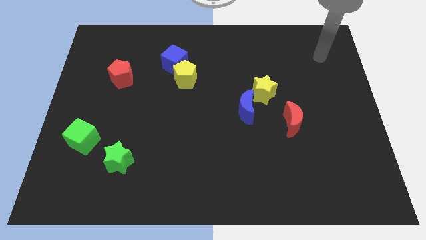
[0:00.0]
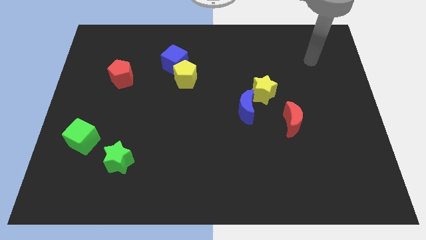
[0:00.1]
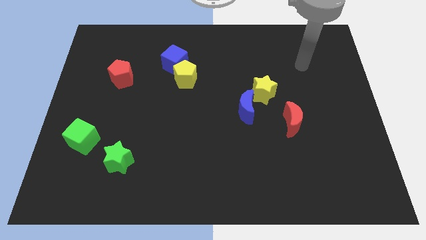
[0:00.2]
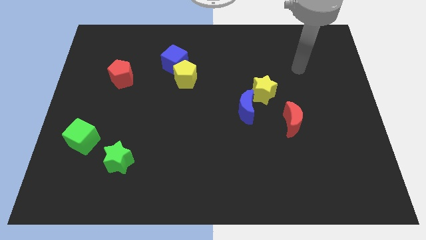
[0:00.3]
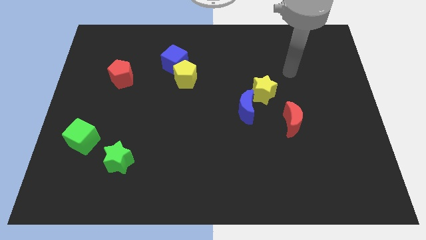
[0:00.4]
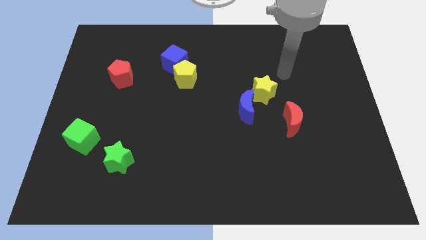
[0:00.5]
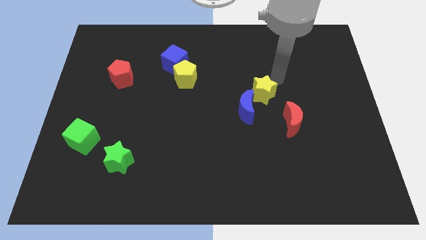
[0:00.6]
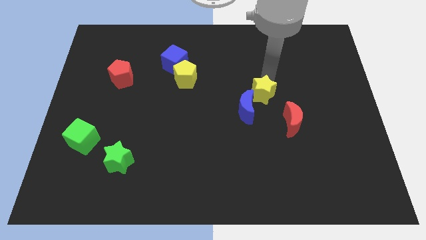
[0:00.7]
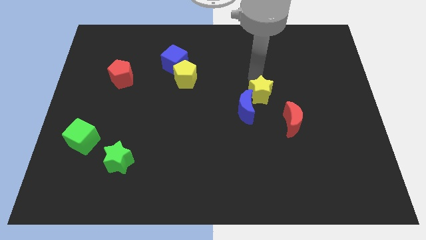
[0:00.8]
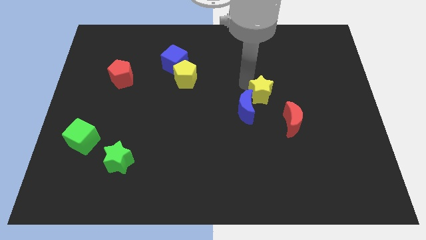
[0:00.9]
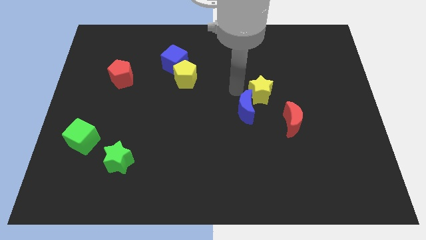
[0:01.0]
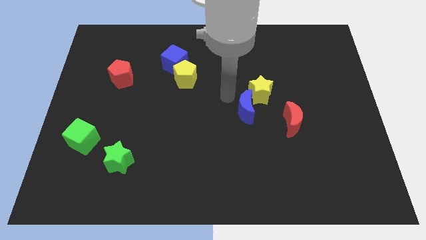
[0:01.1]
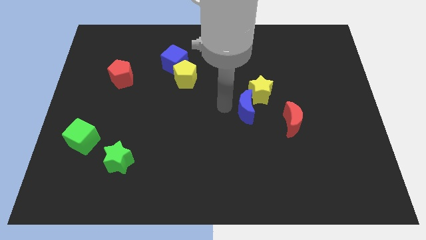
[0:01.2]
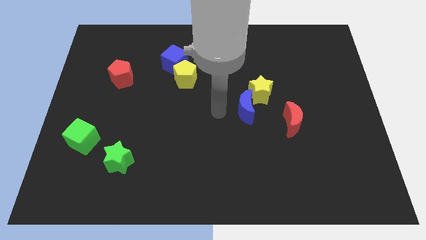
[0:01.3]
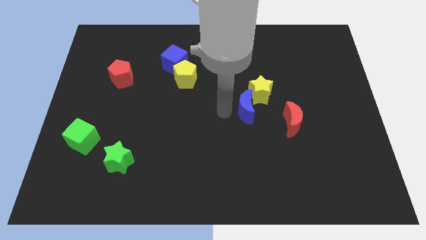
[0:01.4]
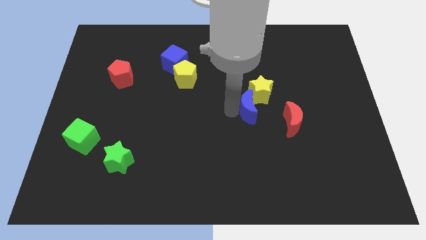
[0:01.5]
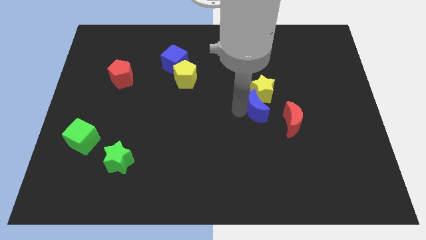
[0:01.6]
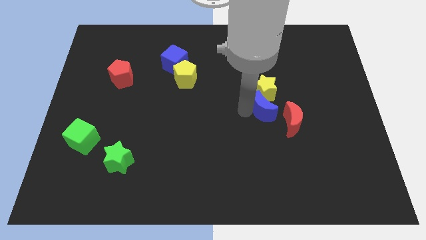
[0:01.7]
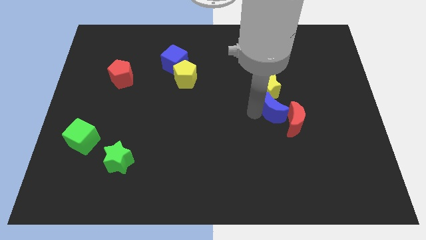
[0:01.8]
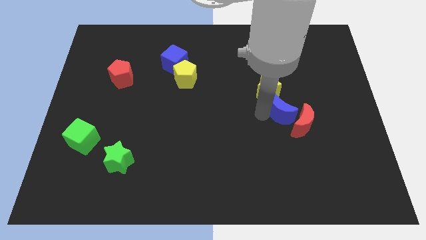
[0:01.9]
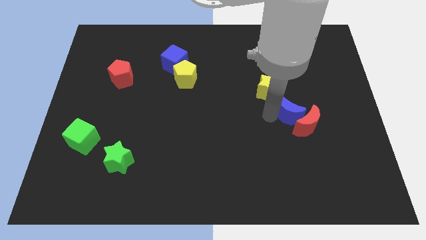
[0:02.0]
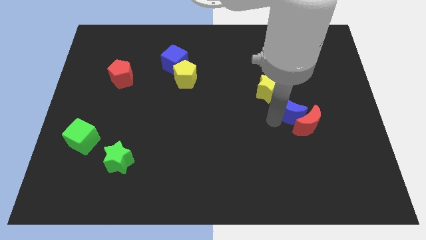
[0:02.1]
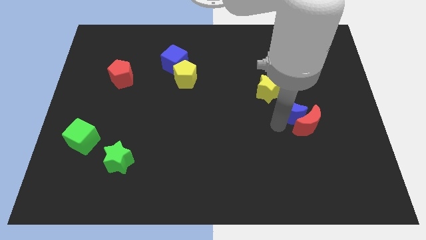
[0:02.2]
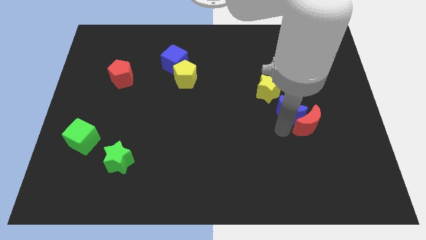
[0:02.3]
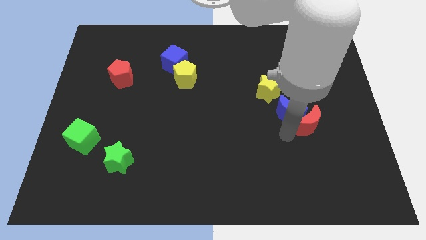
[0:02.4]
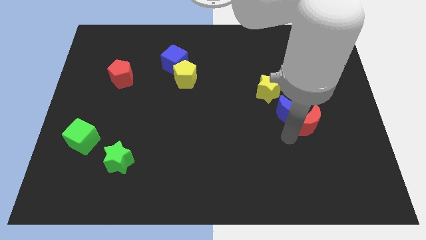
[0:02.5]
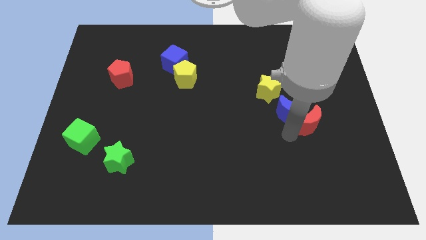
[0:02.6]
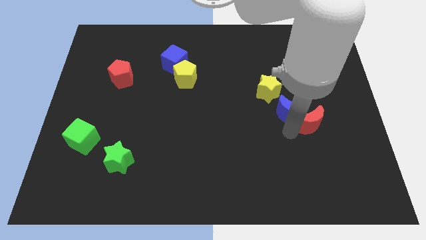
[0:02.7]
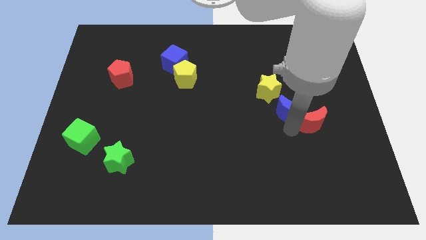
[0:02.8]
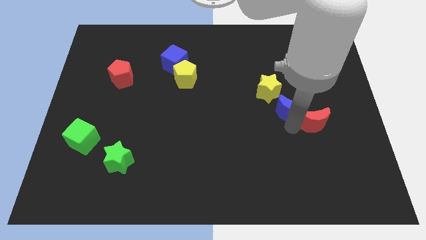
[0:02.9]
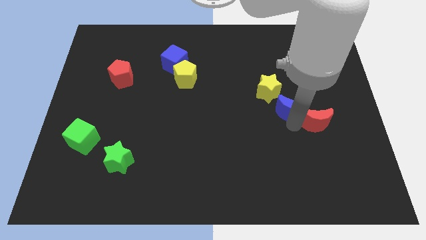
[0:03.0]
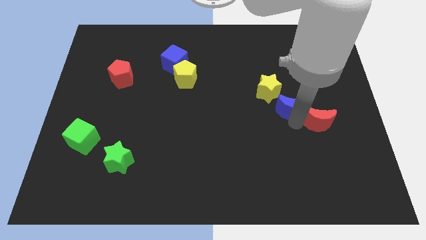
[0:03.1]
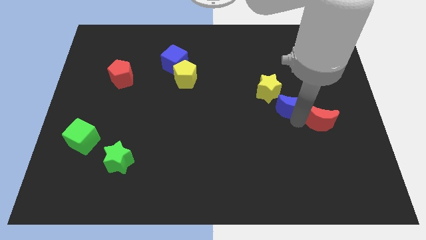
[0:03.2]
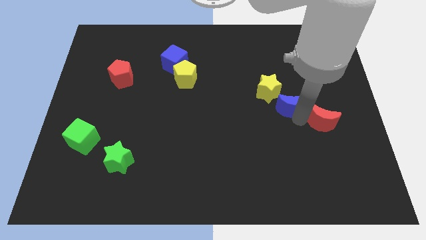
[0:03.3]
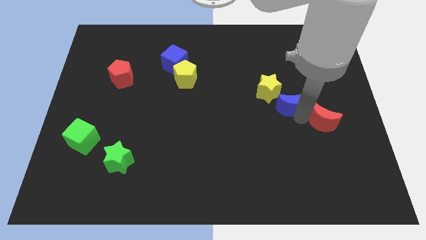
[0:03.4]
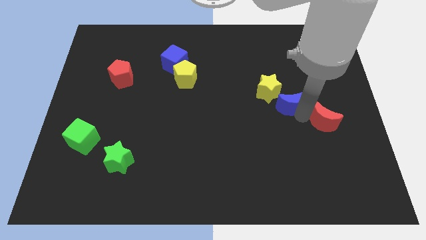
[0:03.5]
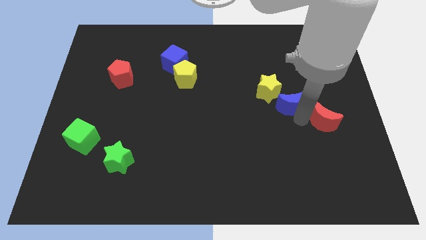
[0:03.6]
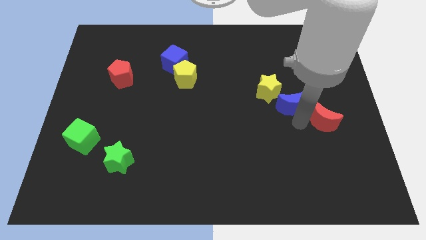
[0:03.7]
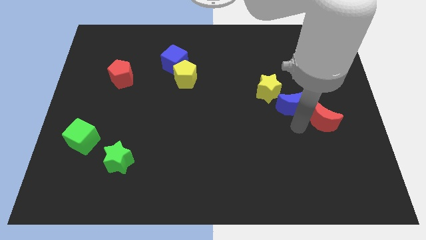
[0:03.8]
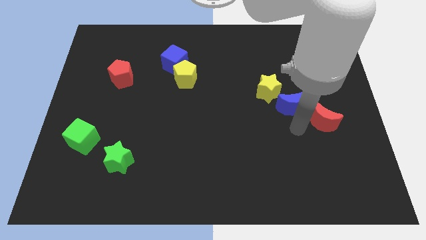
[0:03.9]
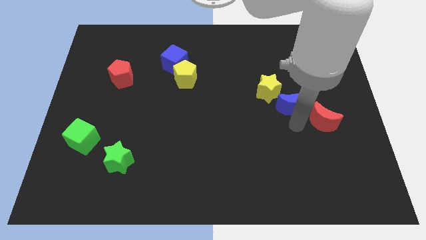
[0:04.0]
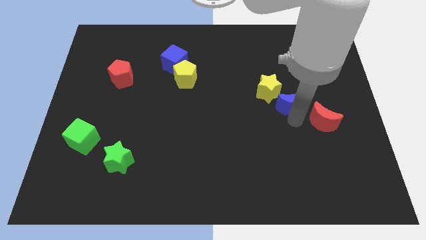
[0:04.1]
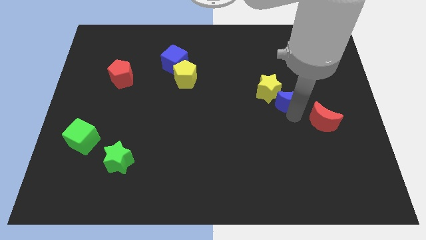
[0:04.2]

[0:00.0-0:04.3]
push the blue moon somewhat upwards and then to the right

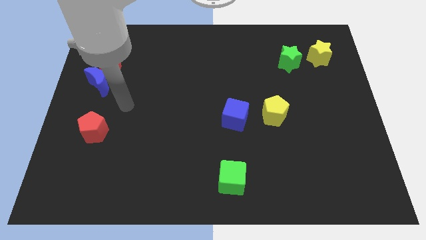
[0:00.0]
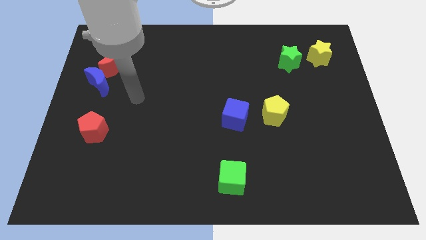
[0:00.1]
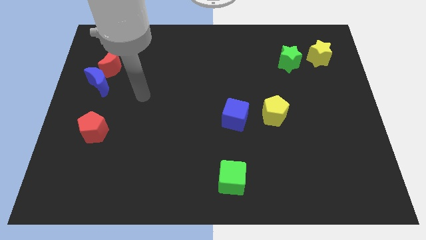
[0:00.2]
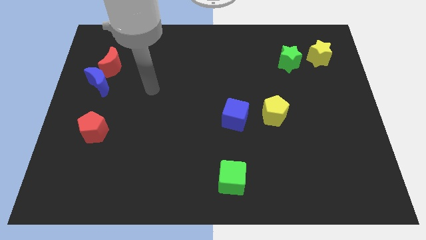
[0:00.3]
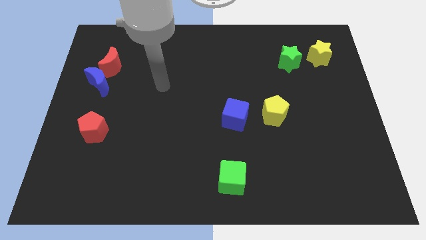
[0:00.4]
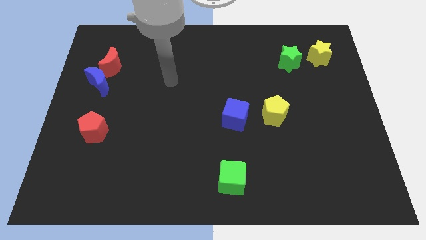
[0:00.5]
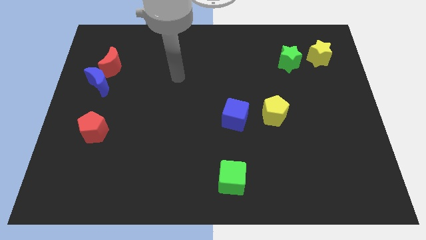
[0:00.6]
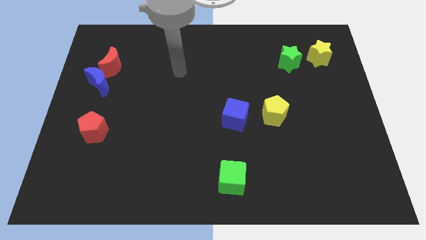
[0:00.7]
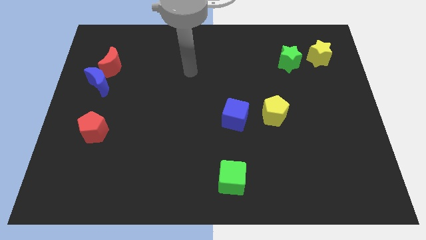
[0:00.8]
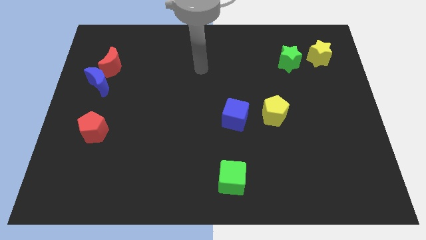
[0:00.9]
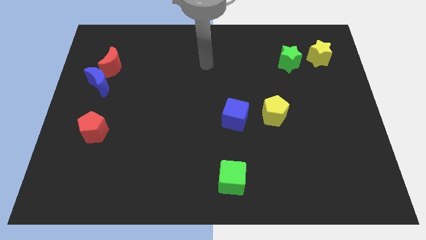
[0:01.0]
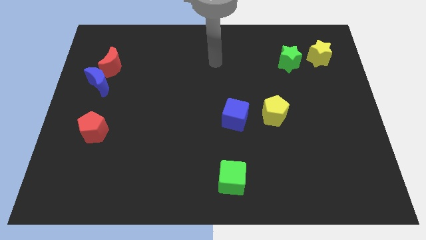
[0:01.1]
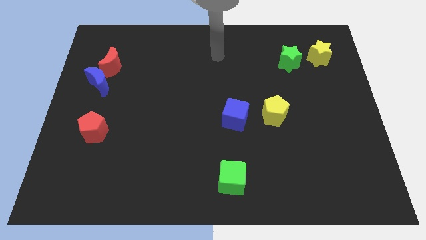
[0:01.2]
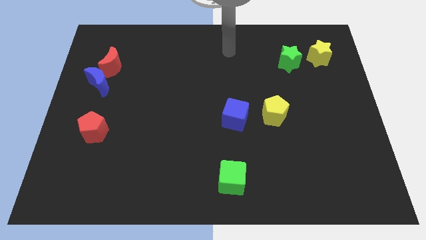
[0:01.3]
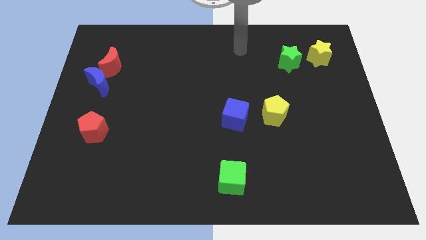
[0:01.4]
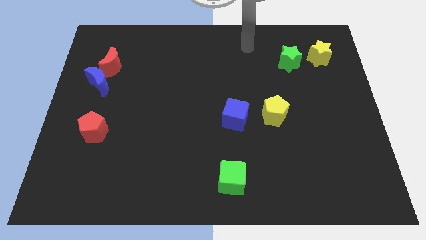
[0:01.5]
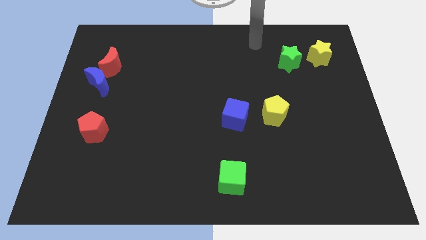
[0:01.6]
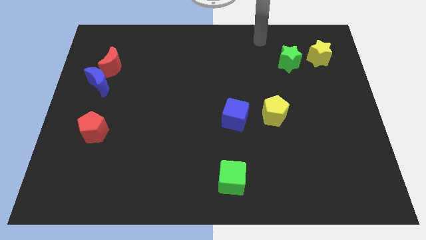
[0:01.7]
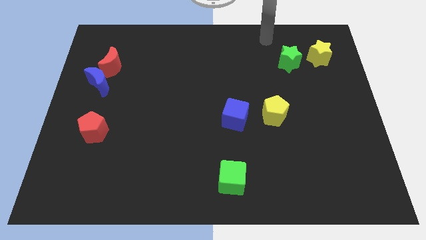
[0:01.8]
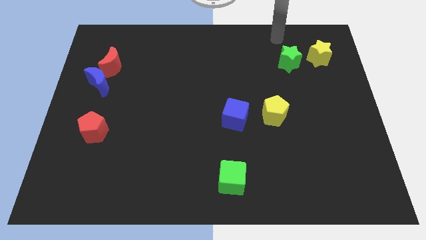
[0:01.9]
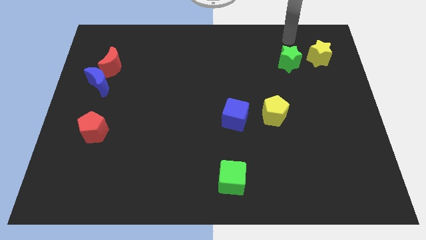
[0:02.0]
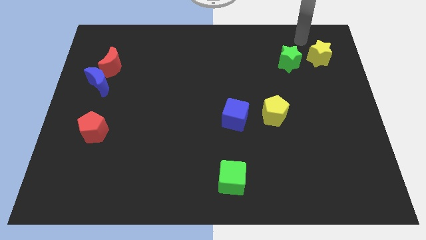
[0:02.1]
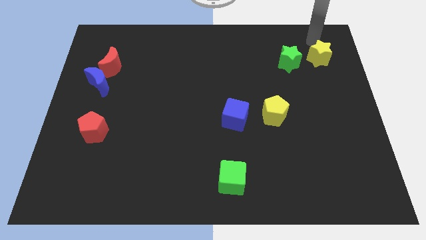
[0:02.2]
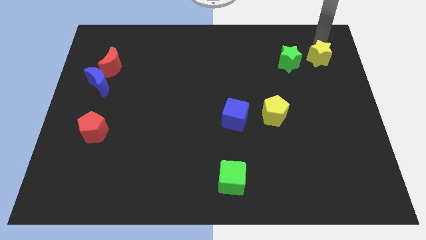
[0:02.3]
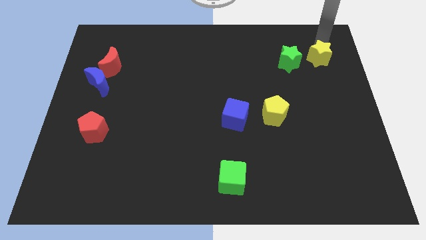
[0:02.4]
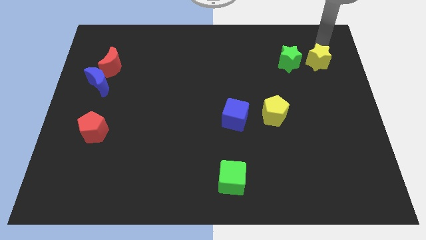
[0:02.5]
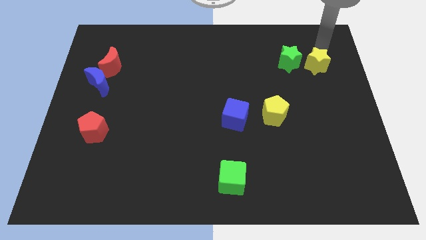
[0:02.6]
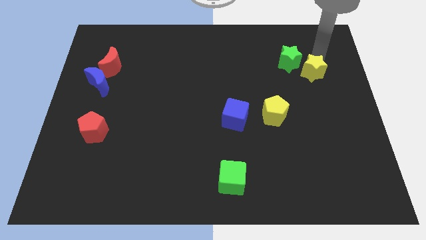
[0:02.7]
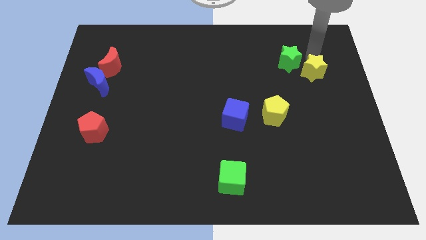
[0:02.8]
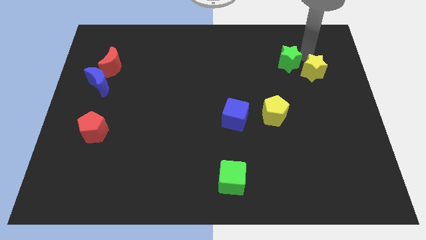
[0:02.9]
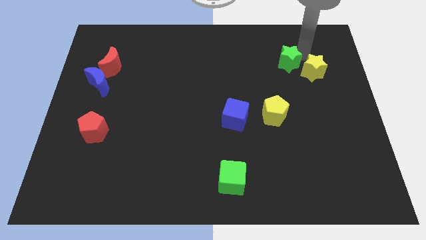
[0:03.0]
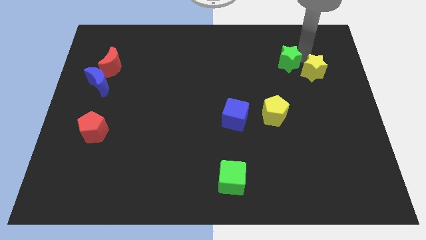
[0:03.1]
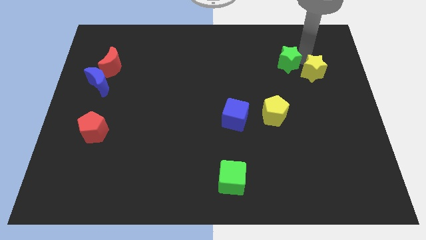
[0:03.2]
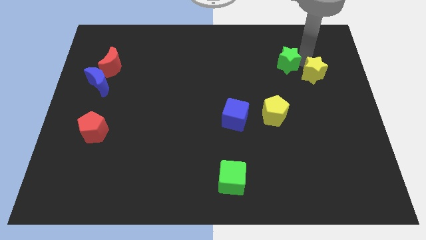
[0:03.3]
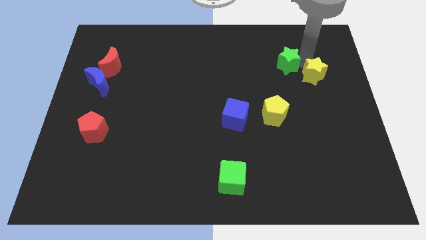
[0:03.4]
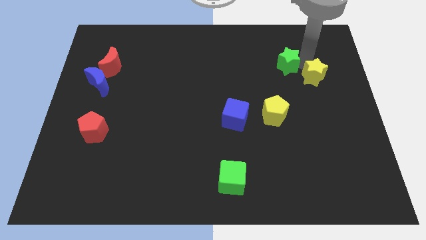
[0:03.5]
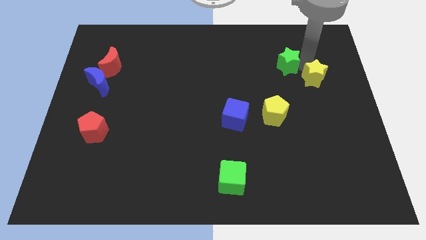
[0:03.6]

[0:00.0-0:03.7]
slightly slide the yellow star down
